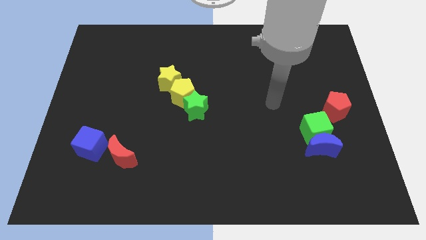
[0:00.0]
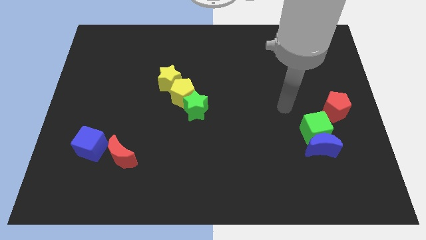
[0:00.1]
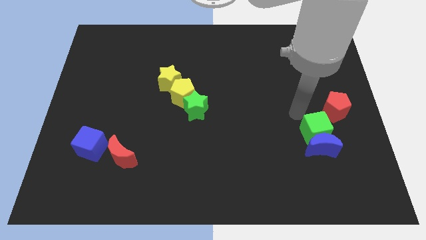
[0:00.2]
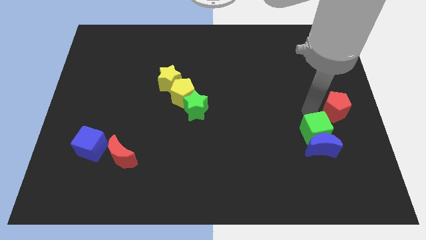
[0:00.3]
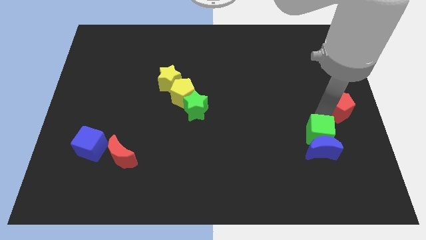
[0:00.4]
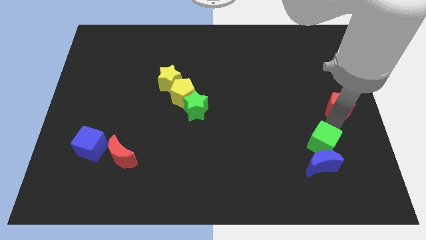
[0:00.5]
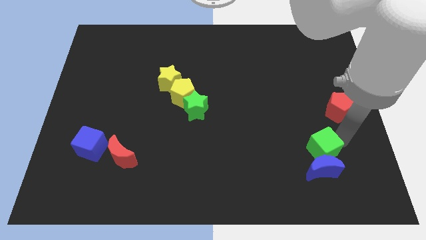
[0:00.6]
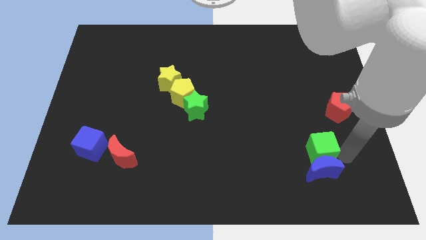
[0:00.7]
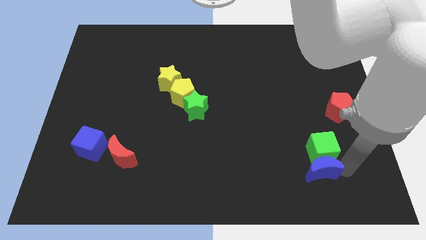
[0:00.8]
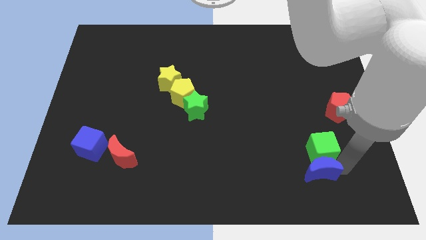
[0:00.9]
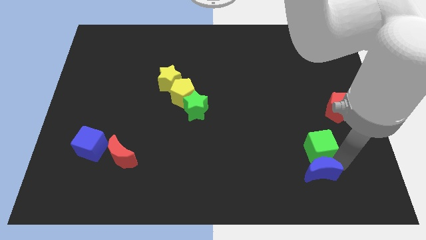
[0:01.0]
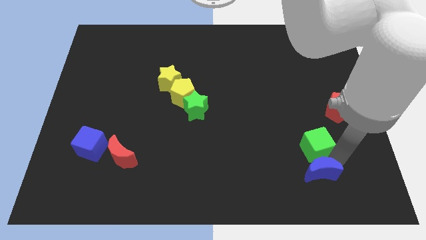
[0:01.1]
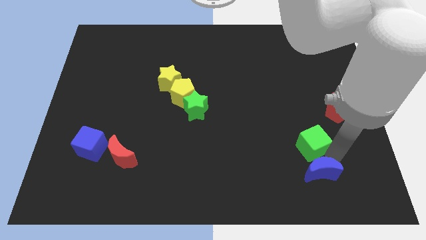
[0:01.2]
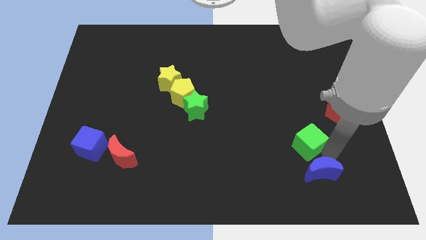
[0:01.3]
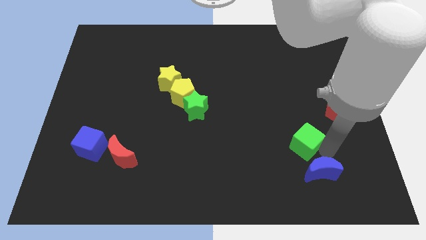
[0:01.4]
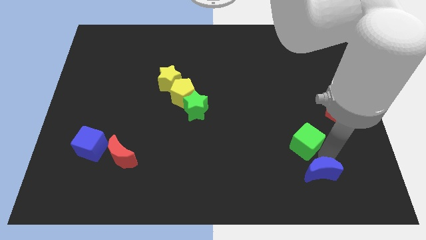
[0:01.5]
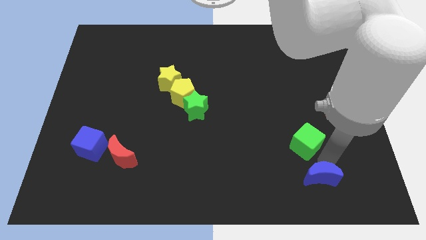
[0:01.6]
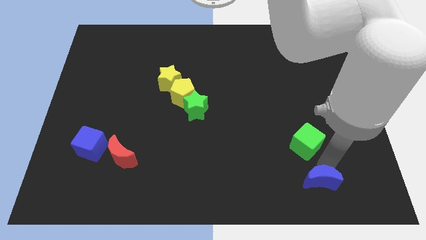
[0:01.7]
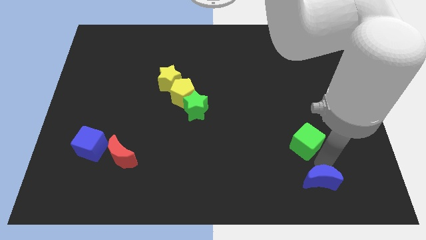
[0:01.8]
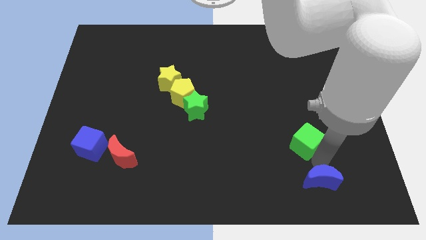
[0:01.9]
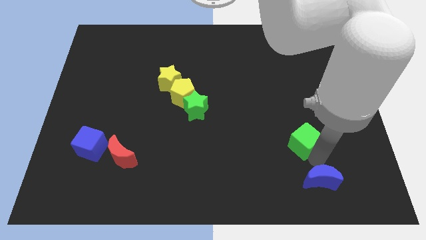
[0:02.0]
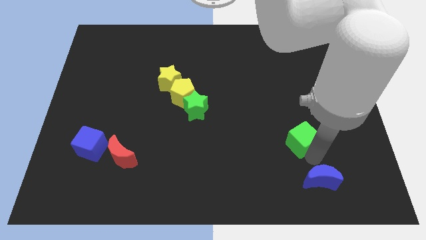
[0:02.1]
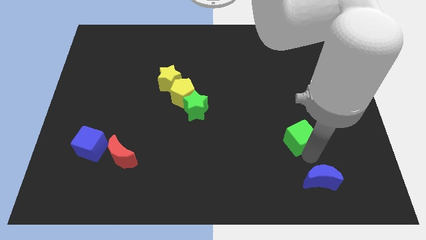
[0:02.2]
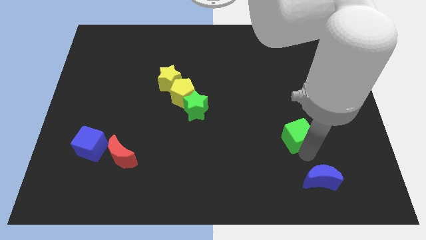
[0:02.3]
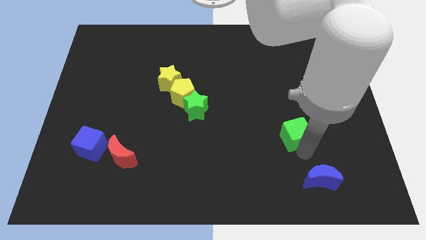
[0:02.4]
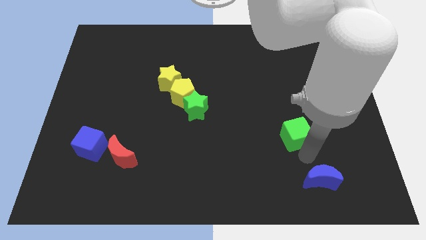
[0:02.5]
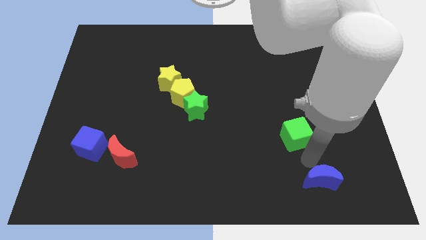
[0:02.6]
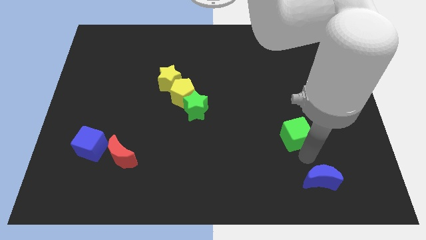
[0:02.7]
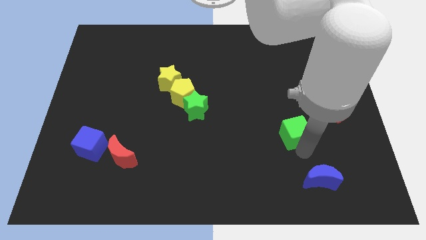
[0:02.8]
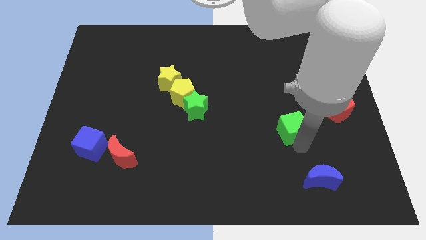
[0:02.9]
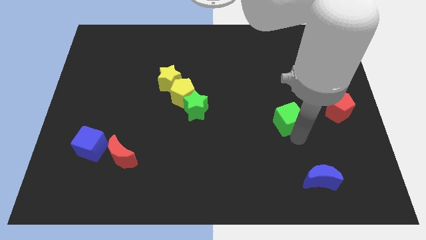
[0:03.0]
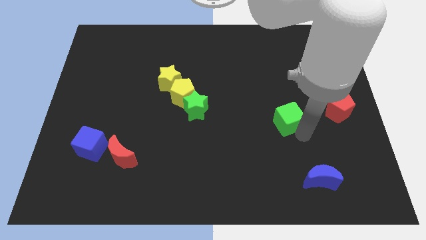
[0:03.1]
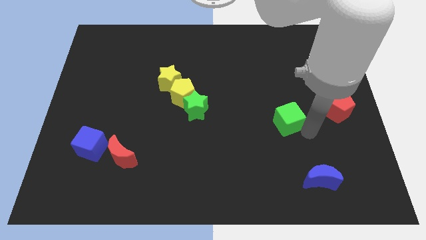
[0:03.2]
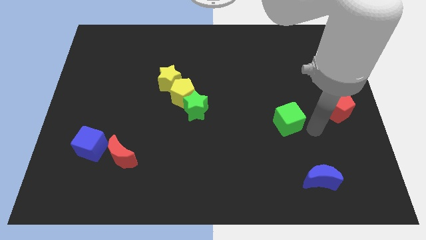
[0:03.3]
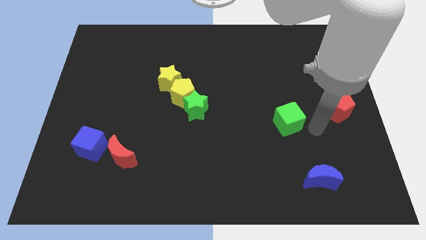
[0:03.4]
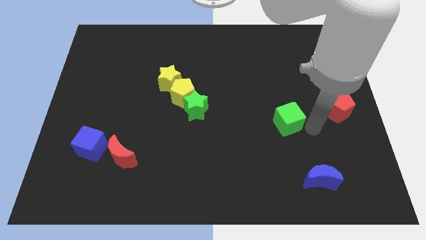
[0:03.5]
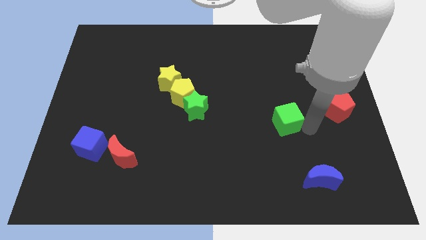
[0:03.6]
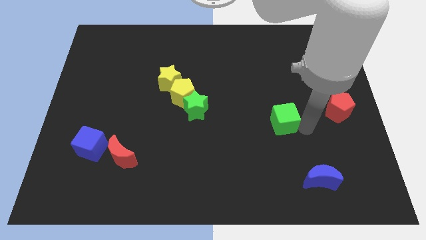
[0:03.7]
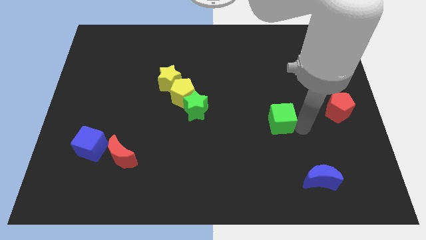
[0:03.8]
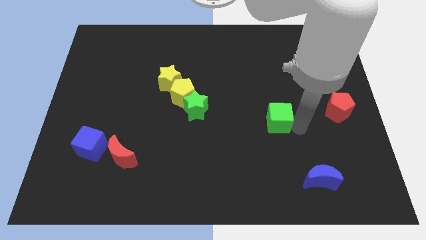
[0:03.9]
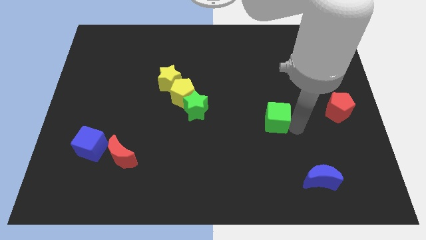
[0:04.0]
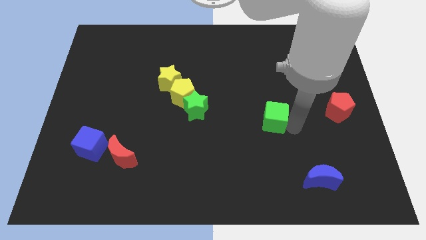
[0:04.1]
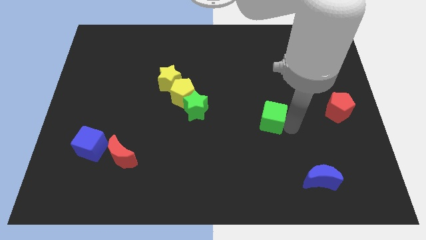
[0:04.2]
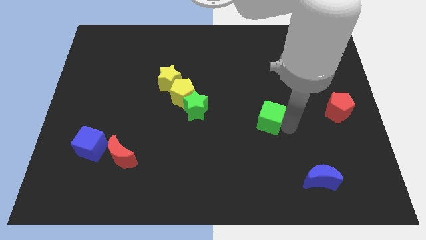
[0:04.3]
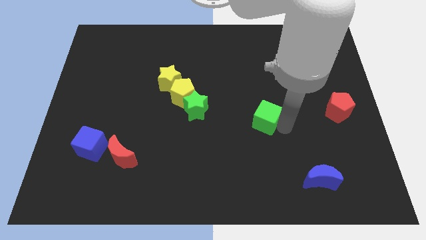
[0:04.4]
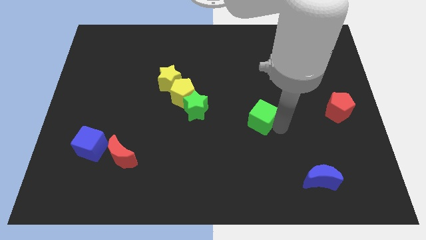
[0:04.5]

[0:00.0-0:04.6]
put the green cube to the middle

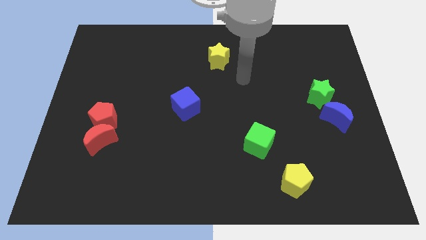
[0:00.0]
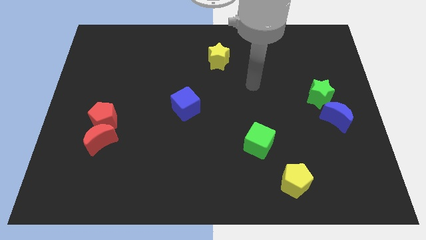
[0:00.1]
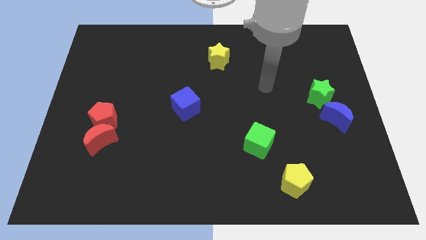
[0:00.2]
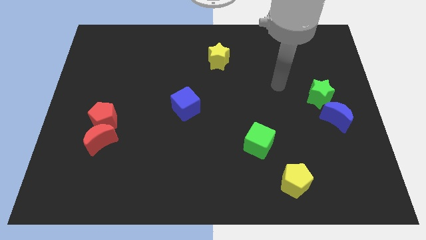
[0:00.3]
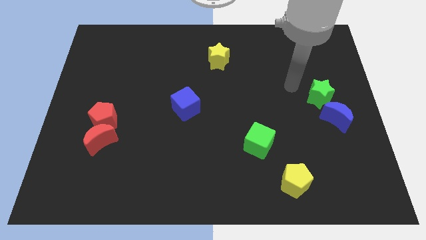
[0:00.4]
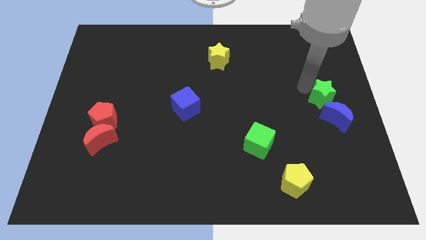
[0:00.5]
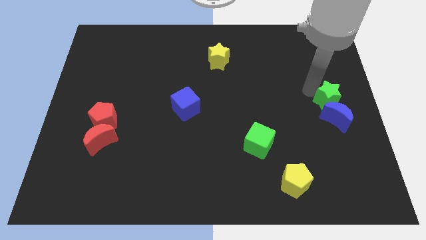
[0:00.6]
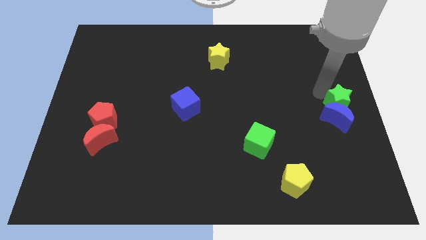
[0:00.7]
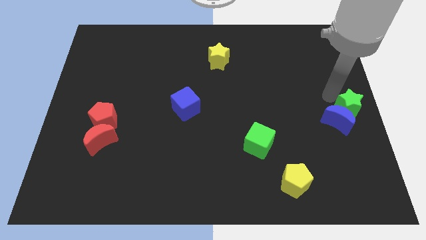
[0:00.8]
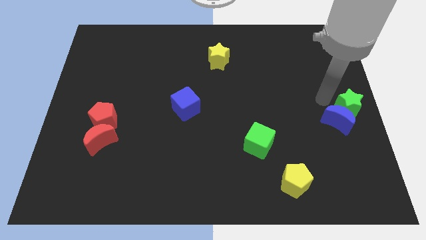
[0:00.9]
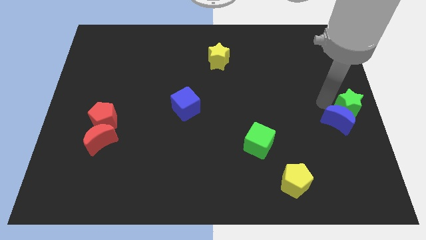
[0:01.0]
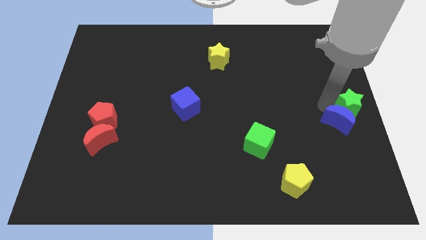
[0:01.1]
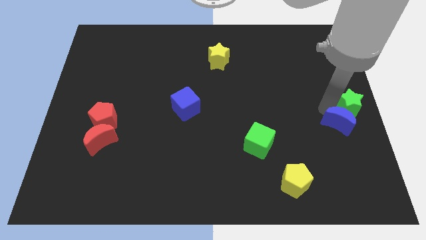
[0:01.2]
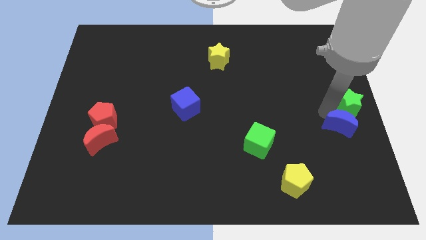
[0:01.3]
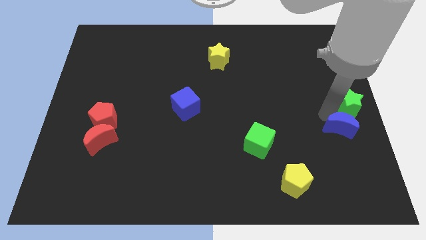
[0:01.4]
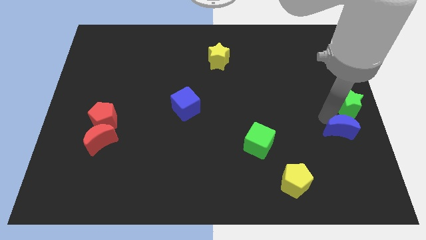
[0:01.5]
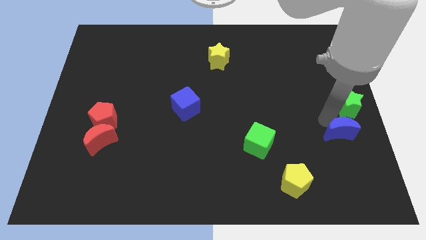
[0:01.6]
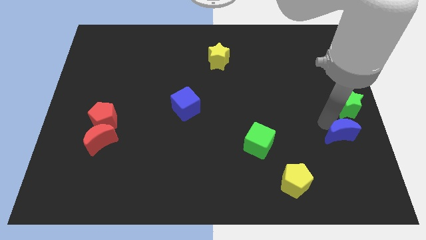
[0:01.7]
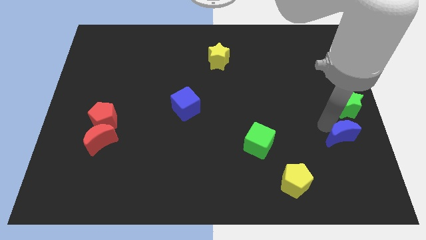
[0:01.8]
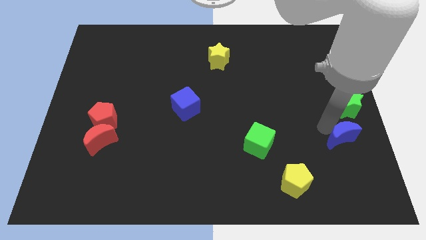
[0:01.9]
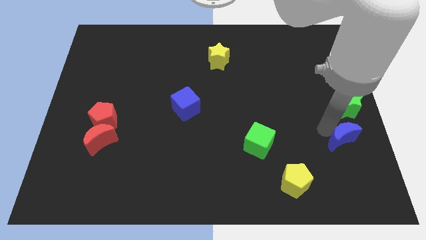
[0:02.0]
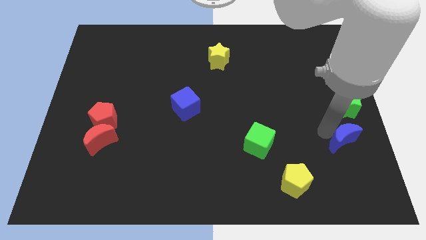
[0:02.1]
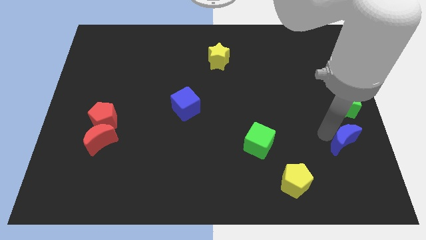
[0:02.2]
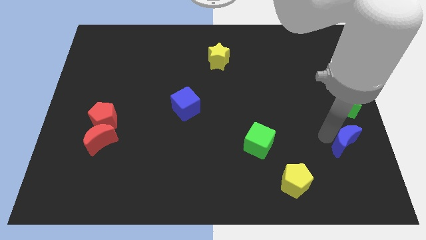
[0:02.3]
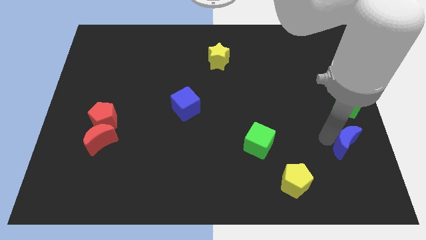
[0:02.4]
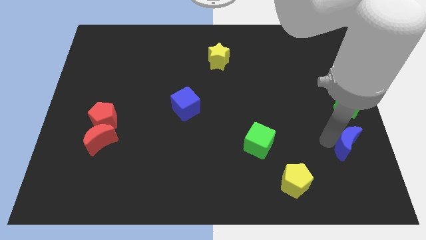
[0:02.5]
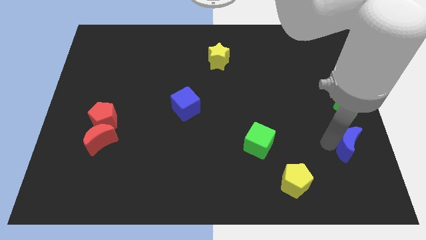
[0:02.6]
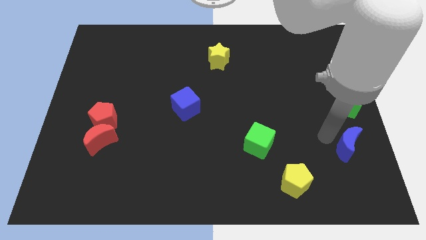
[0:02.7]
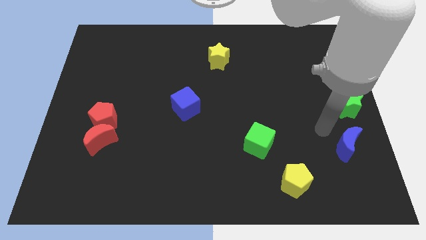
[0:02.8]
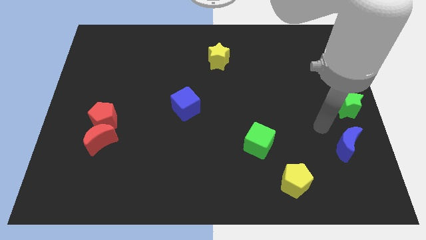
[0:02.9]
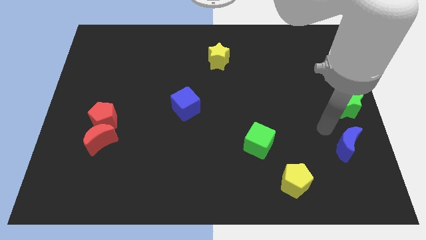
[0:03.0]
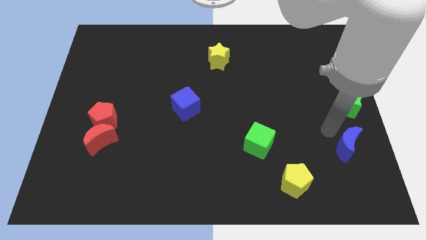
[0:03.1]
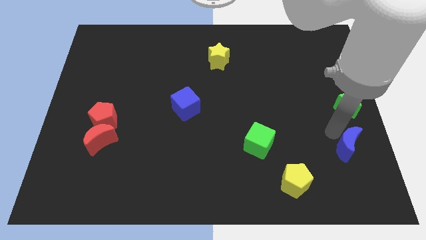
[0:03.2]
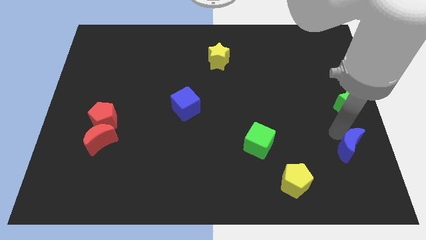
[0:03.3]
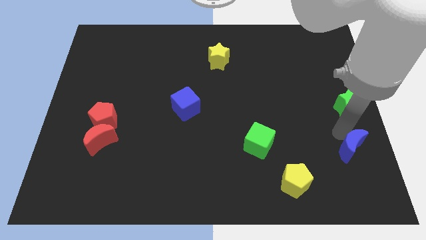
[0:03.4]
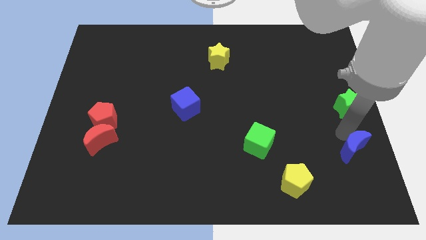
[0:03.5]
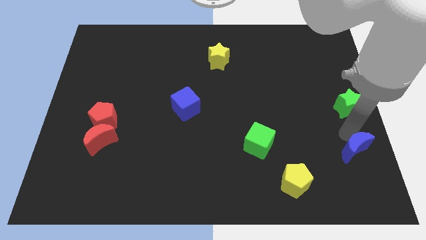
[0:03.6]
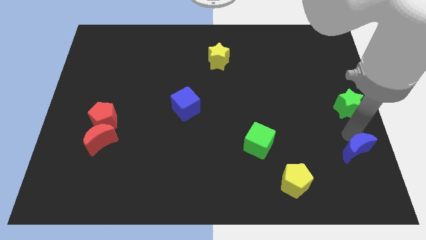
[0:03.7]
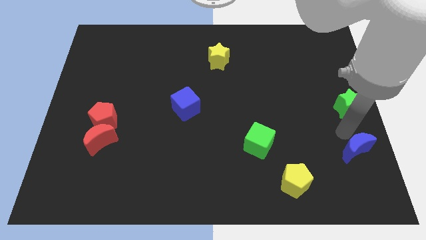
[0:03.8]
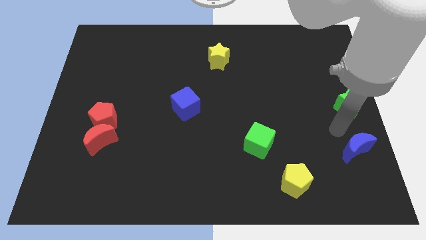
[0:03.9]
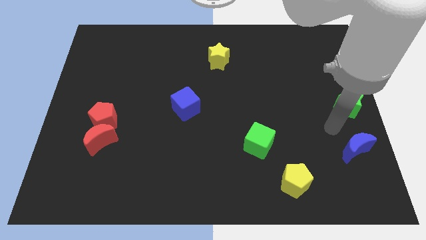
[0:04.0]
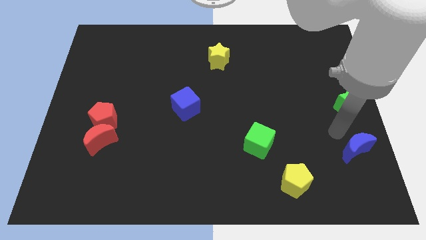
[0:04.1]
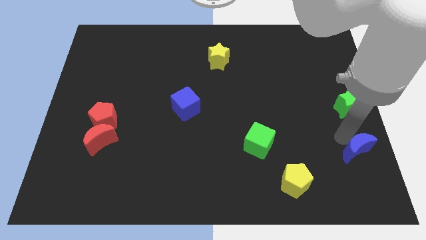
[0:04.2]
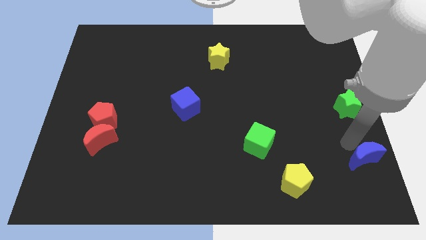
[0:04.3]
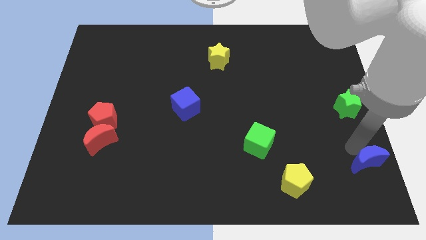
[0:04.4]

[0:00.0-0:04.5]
push the blue moon to the bottom right corner
